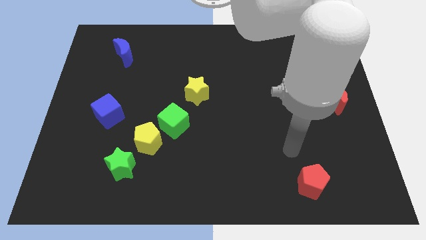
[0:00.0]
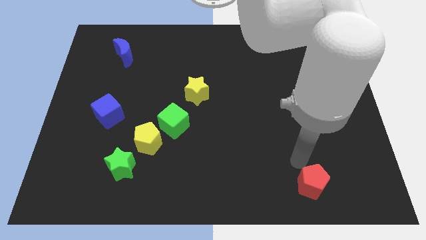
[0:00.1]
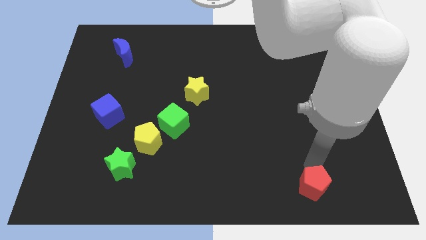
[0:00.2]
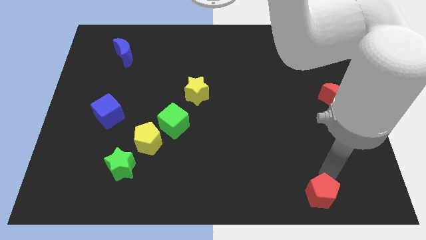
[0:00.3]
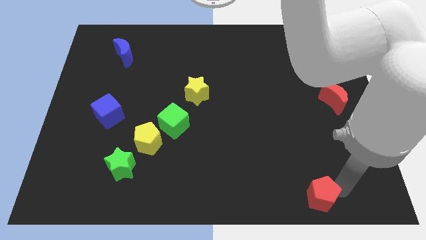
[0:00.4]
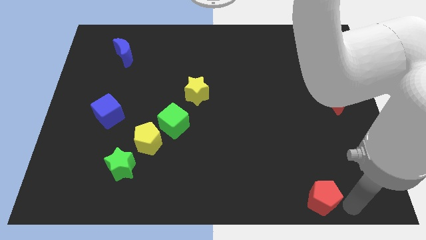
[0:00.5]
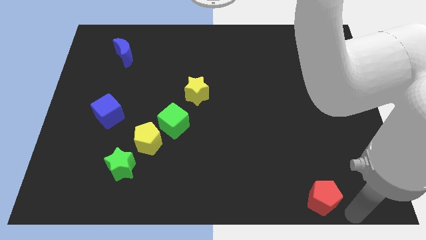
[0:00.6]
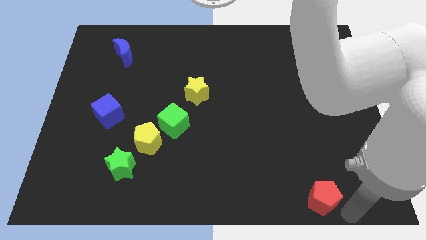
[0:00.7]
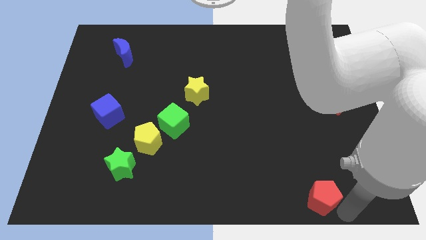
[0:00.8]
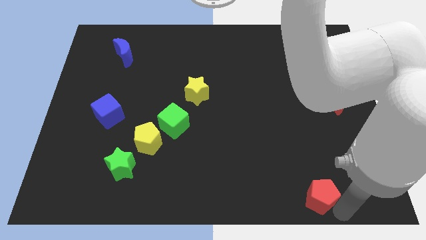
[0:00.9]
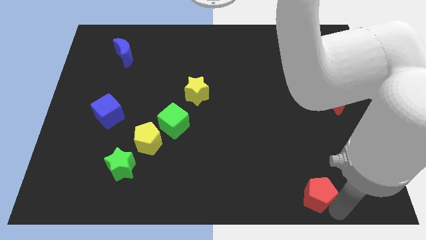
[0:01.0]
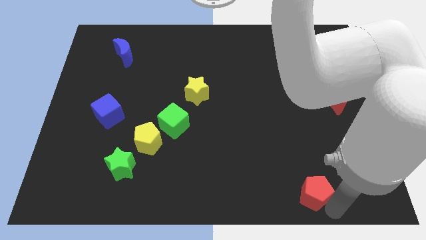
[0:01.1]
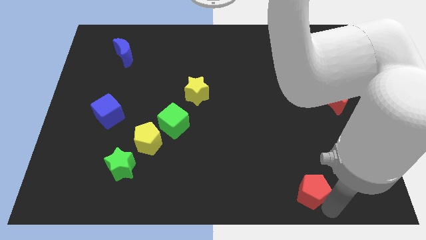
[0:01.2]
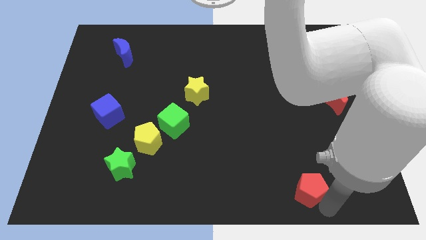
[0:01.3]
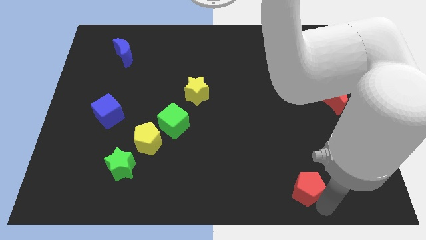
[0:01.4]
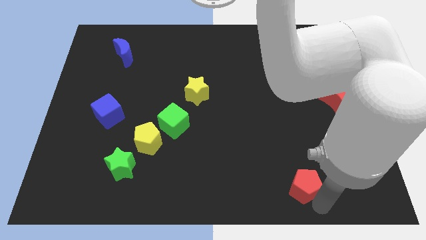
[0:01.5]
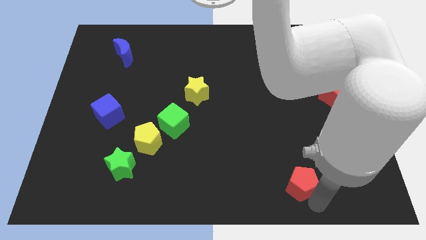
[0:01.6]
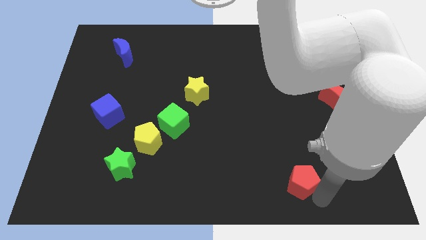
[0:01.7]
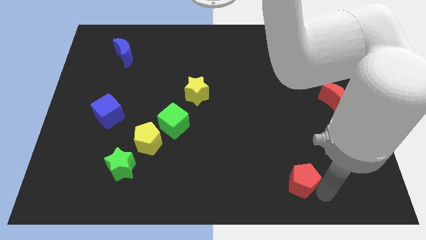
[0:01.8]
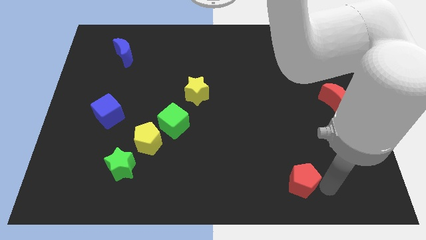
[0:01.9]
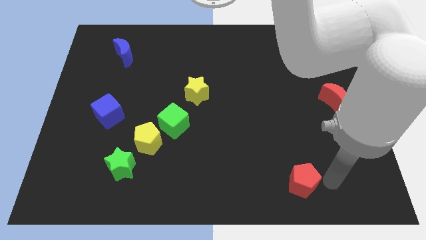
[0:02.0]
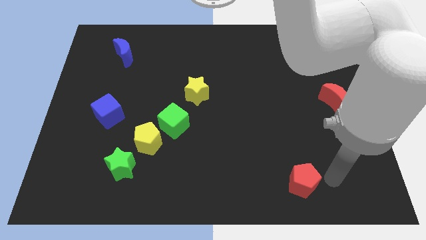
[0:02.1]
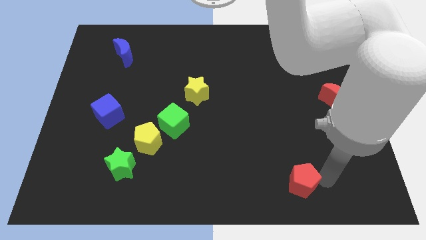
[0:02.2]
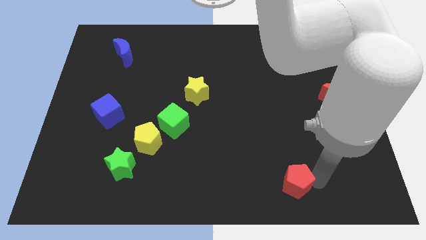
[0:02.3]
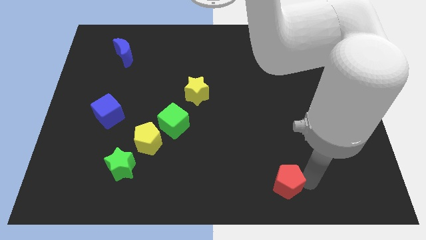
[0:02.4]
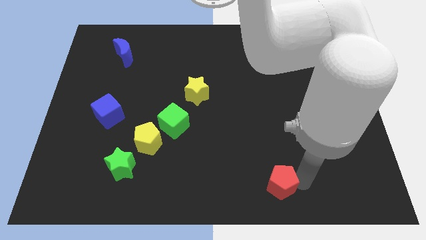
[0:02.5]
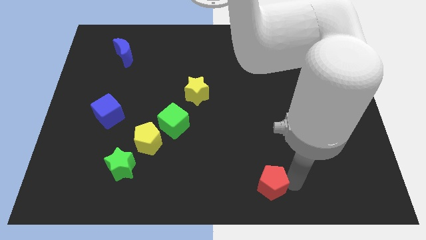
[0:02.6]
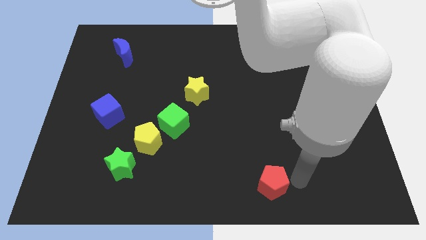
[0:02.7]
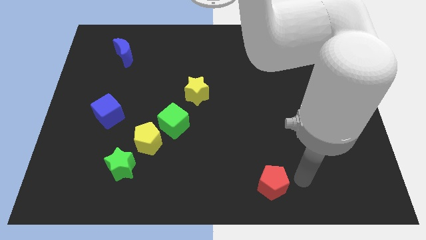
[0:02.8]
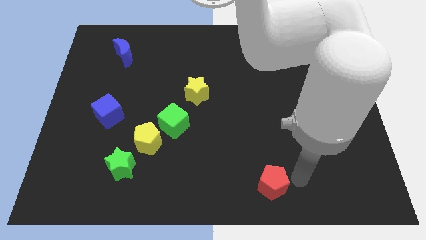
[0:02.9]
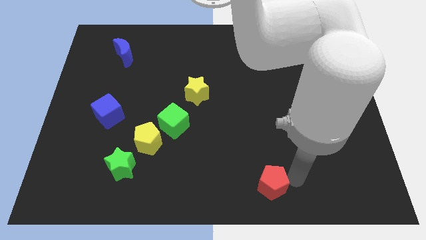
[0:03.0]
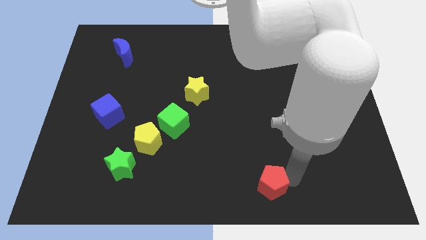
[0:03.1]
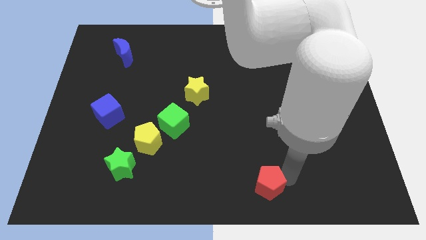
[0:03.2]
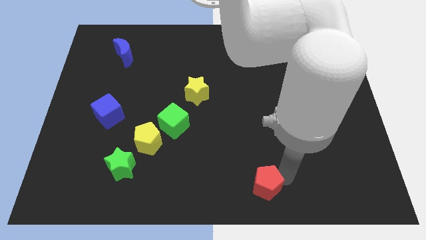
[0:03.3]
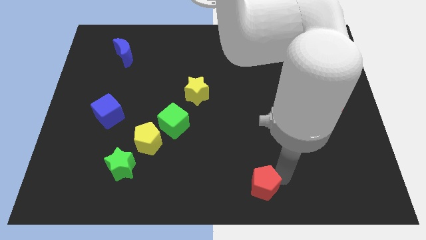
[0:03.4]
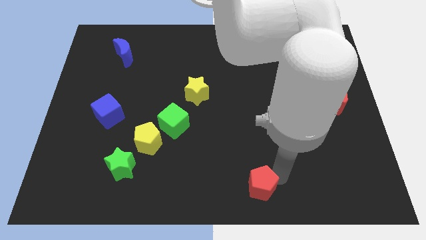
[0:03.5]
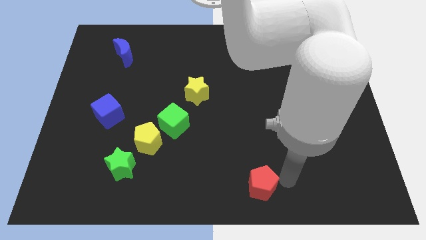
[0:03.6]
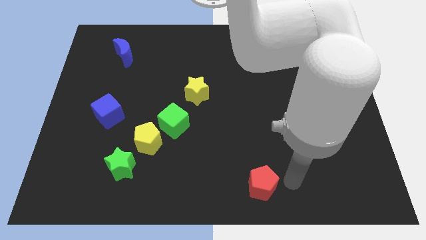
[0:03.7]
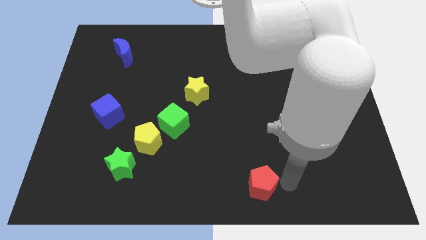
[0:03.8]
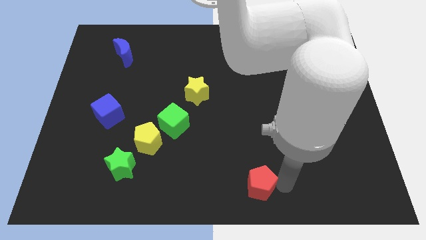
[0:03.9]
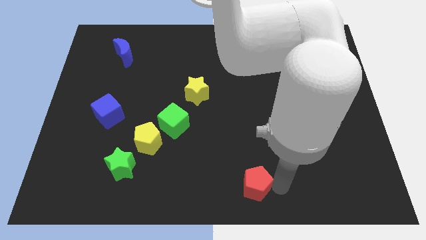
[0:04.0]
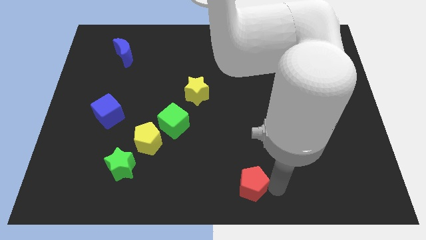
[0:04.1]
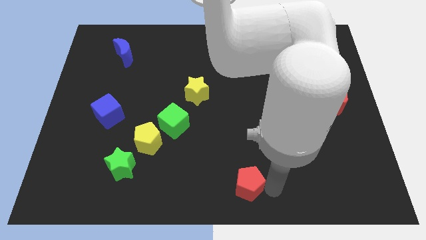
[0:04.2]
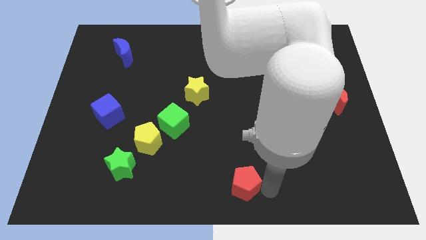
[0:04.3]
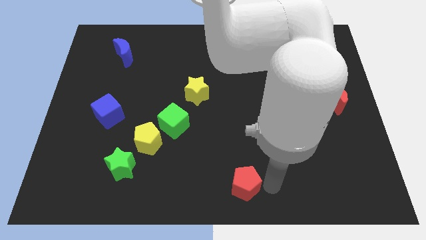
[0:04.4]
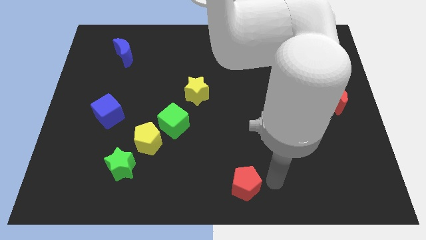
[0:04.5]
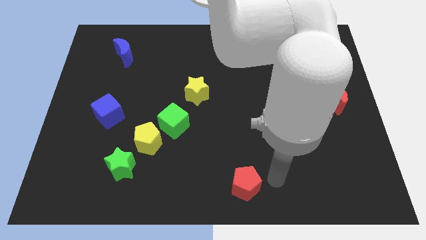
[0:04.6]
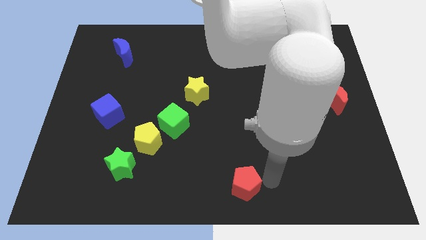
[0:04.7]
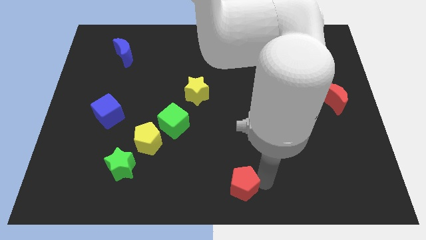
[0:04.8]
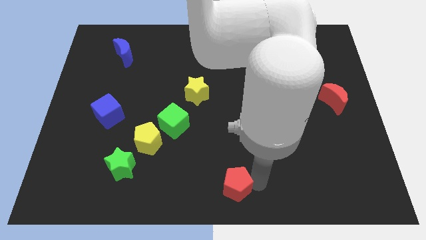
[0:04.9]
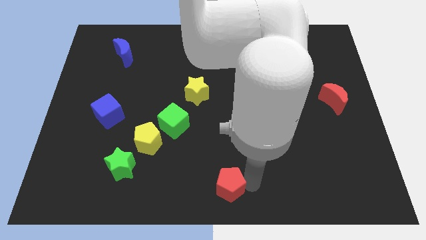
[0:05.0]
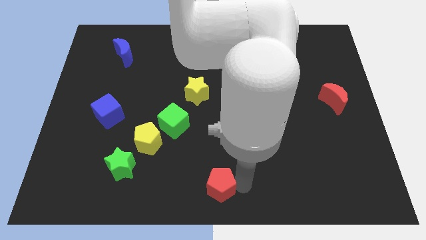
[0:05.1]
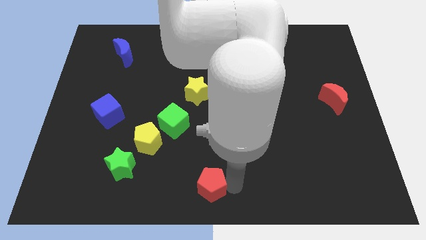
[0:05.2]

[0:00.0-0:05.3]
slide the red pentagon to the left

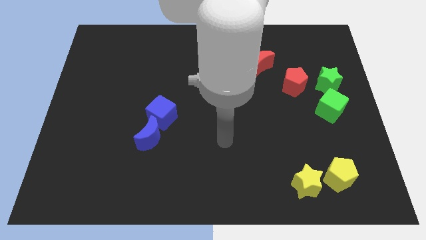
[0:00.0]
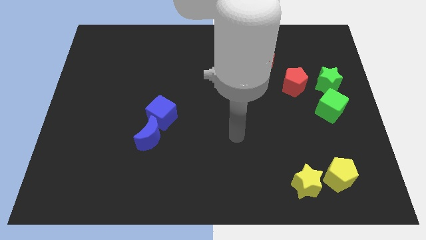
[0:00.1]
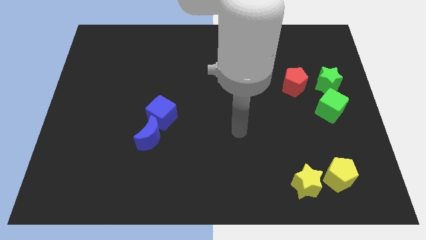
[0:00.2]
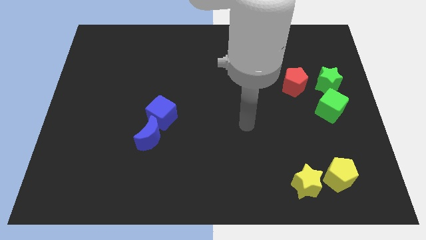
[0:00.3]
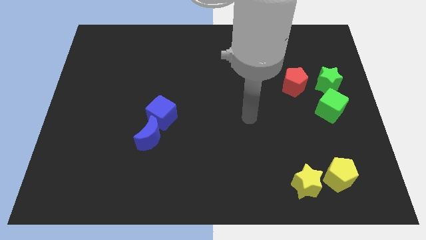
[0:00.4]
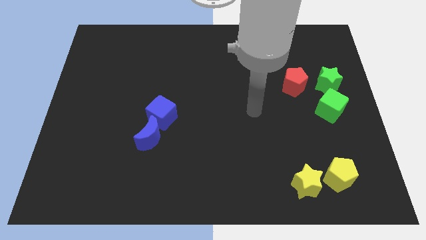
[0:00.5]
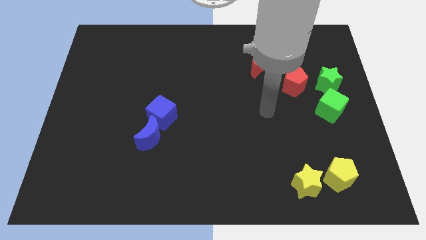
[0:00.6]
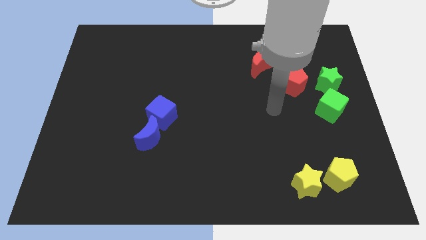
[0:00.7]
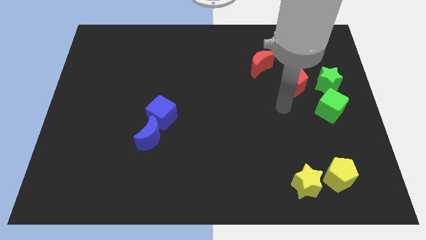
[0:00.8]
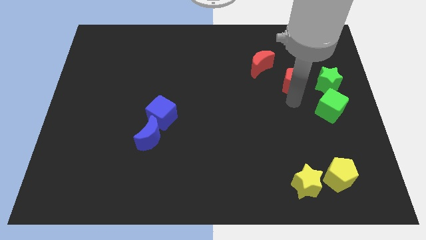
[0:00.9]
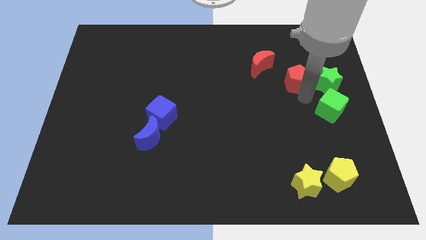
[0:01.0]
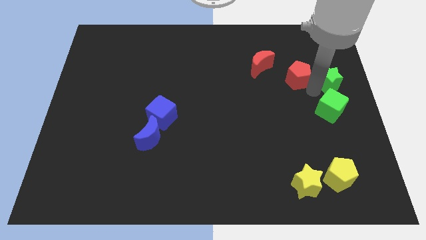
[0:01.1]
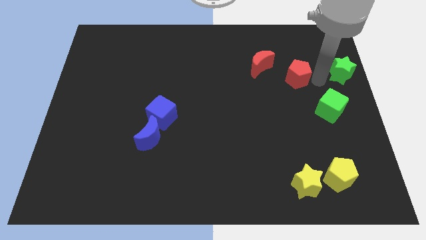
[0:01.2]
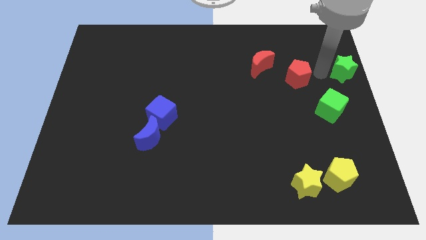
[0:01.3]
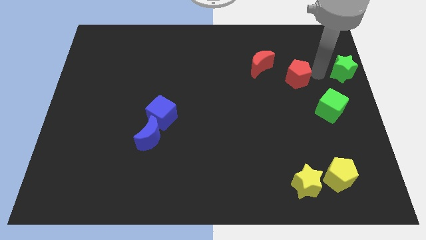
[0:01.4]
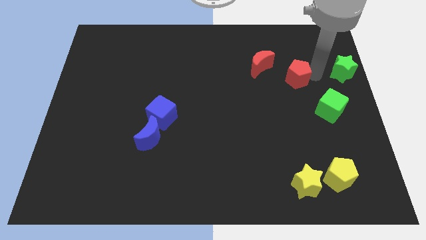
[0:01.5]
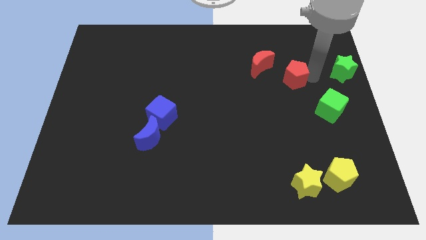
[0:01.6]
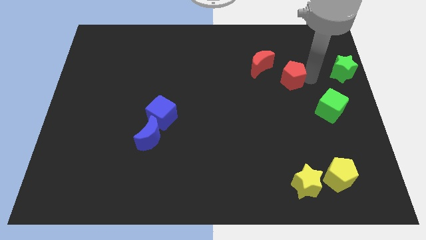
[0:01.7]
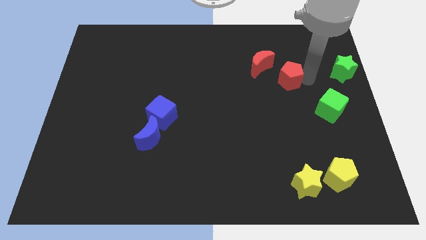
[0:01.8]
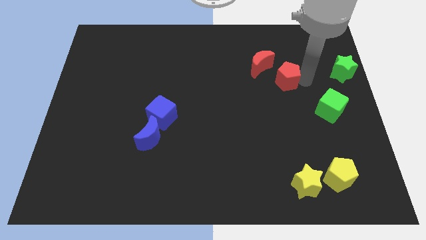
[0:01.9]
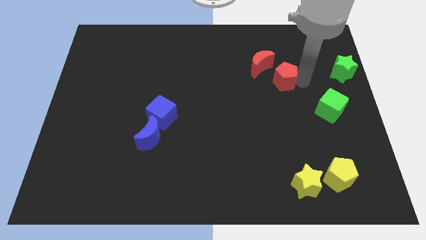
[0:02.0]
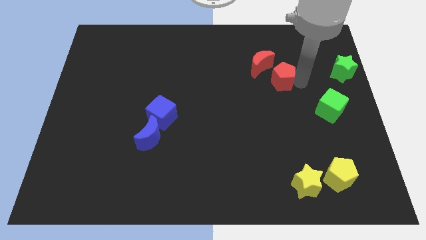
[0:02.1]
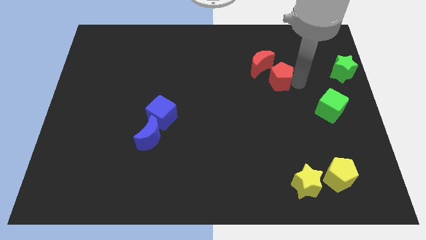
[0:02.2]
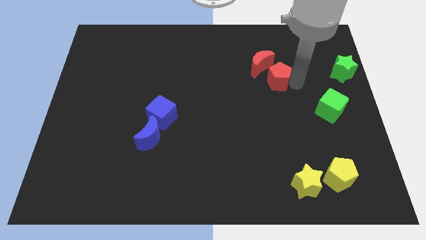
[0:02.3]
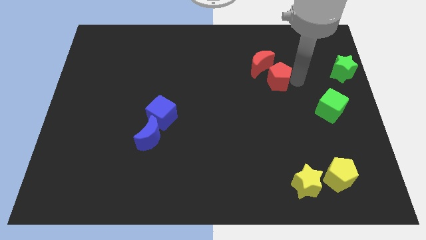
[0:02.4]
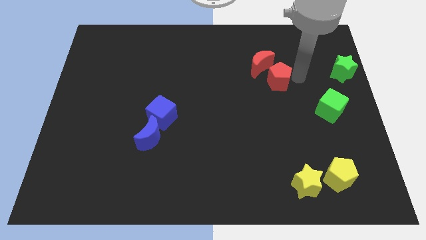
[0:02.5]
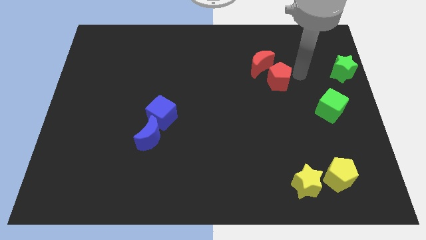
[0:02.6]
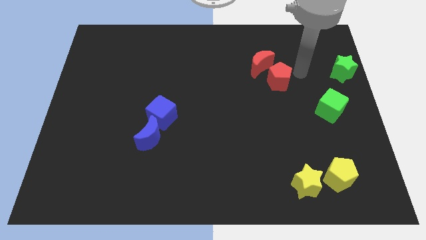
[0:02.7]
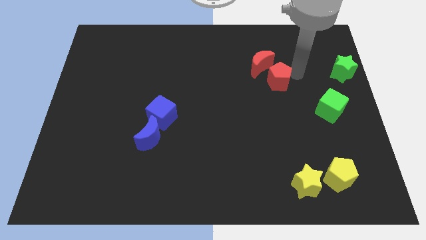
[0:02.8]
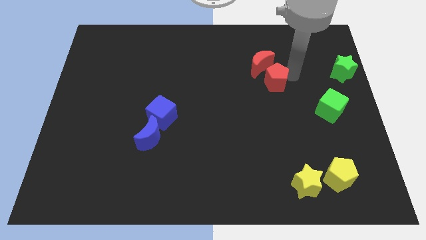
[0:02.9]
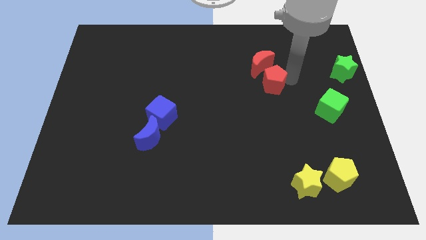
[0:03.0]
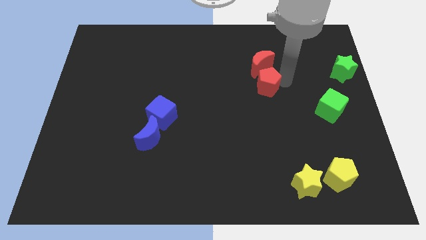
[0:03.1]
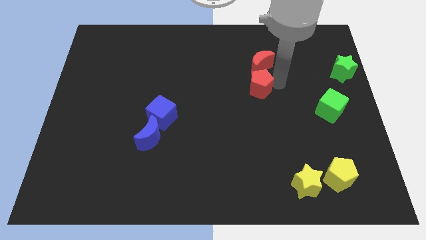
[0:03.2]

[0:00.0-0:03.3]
slightly slide the red pentagon left
